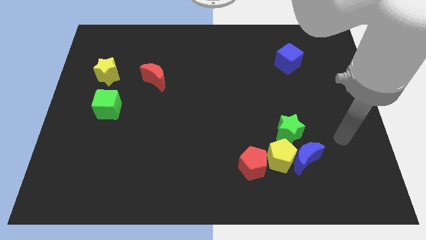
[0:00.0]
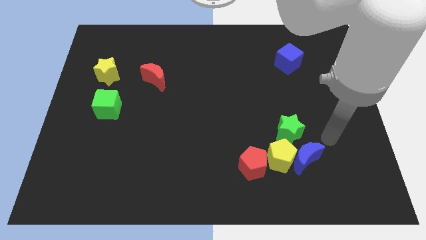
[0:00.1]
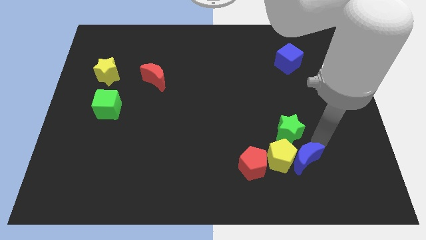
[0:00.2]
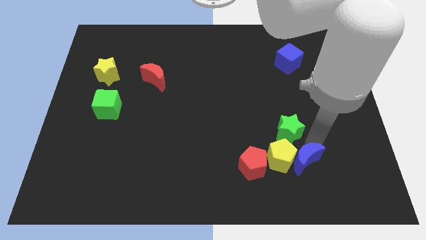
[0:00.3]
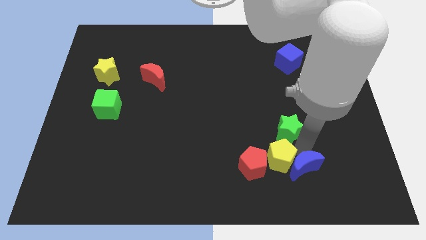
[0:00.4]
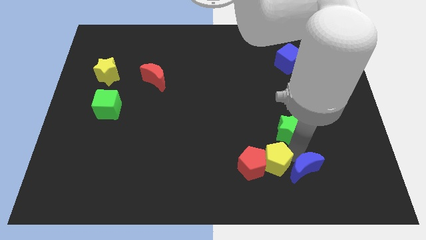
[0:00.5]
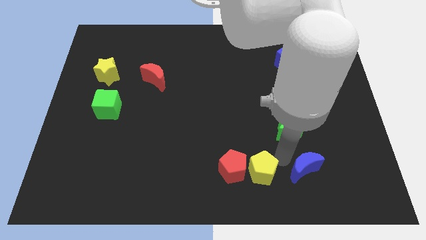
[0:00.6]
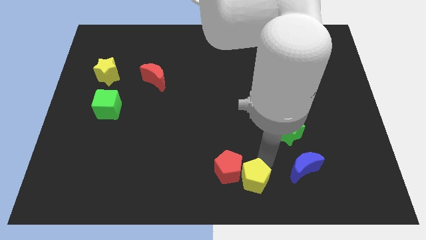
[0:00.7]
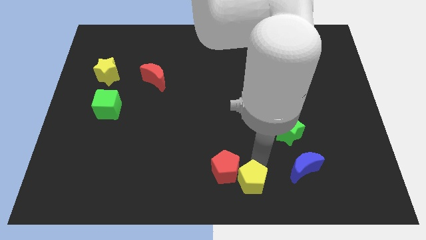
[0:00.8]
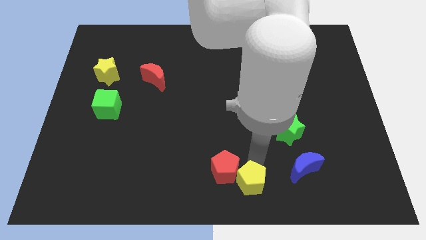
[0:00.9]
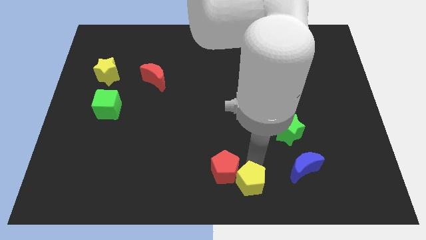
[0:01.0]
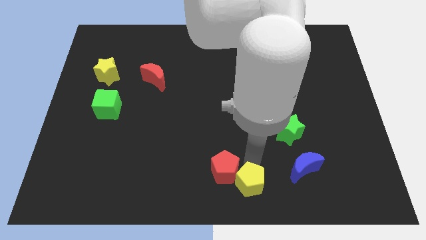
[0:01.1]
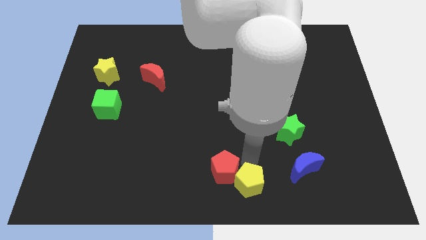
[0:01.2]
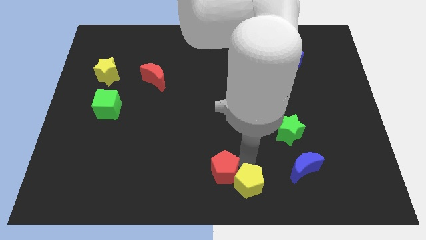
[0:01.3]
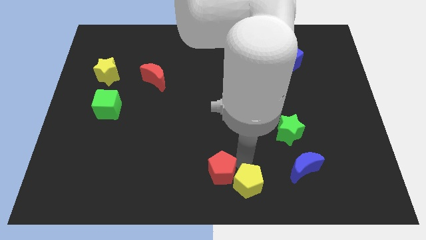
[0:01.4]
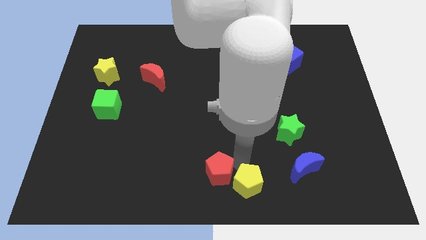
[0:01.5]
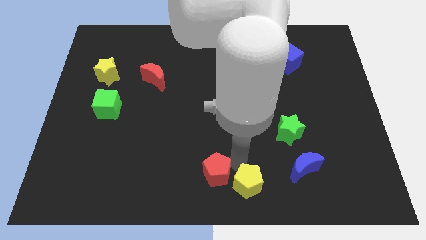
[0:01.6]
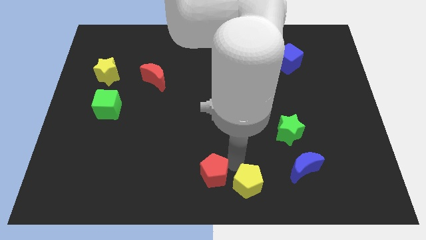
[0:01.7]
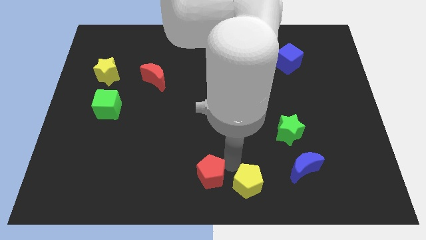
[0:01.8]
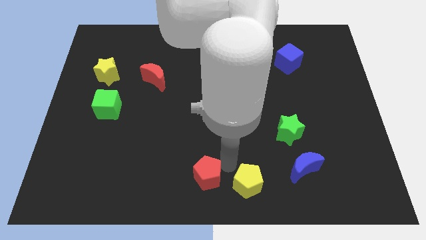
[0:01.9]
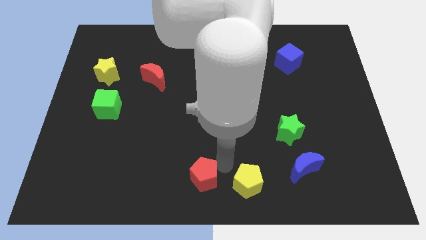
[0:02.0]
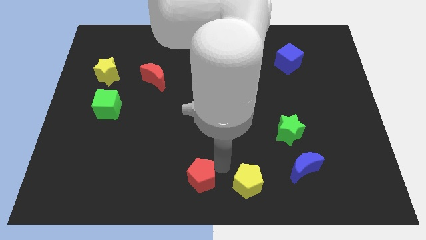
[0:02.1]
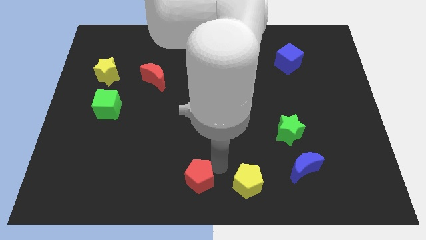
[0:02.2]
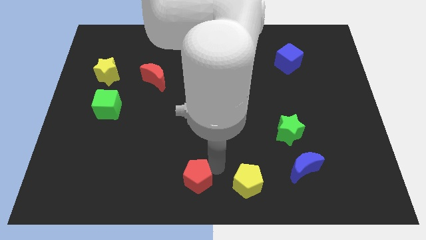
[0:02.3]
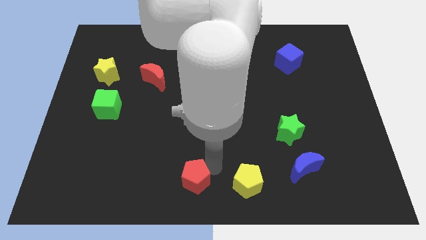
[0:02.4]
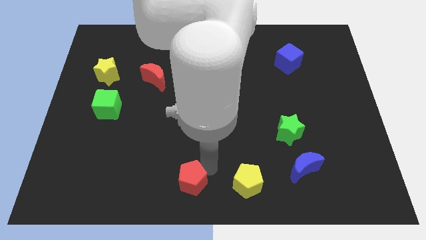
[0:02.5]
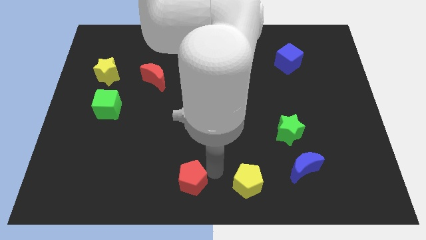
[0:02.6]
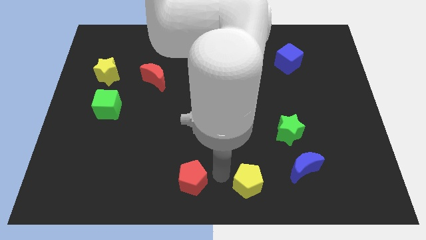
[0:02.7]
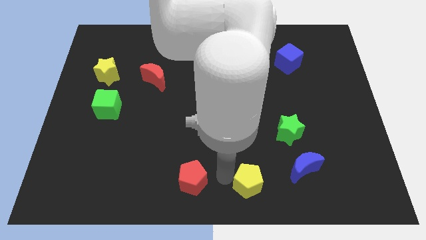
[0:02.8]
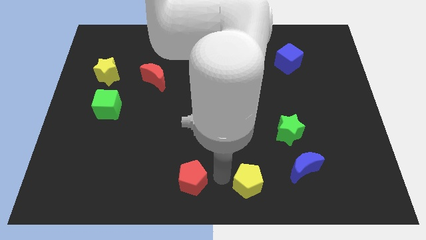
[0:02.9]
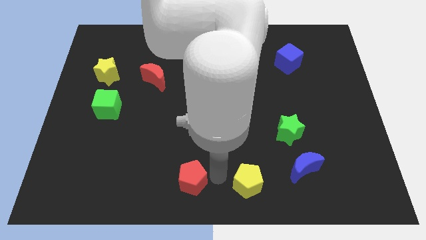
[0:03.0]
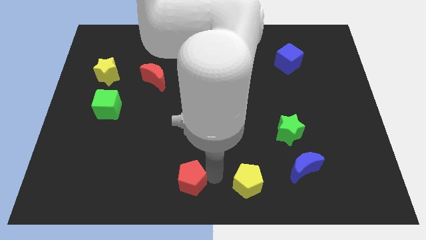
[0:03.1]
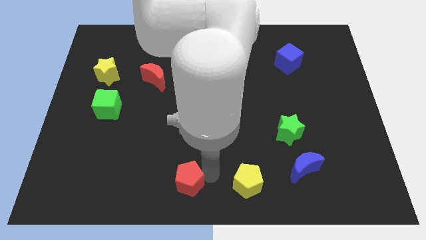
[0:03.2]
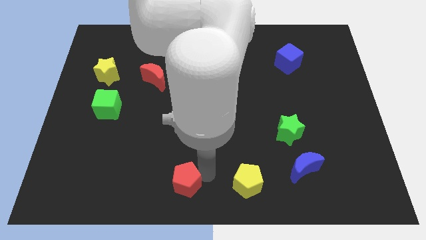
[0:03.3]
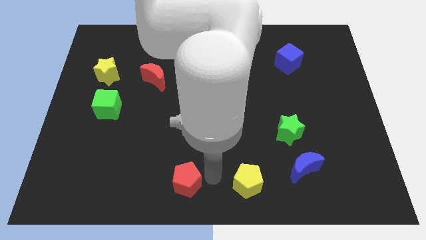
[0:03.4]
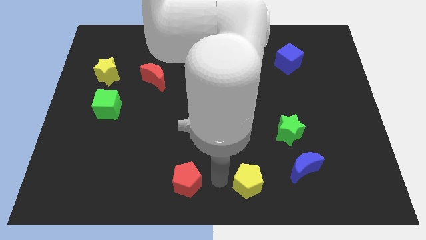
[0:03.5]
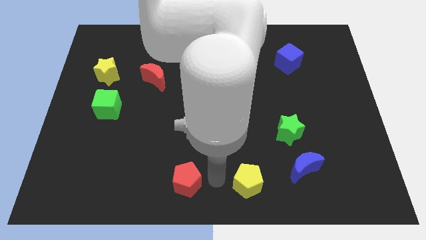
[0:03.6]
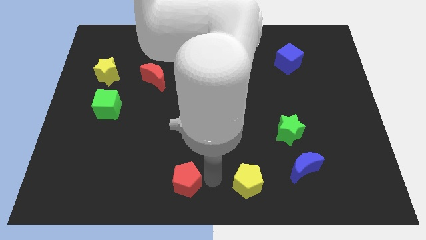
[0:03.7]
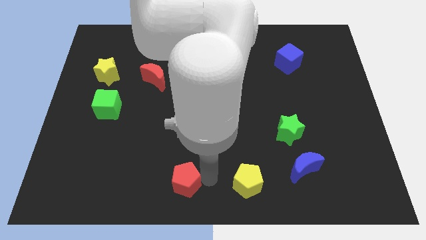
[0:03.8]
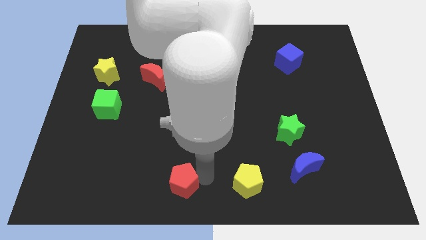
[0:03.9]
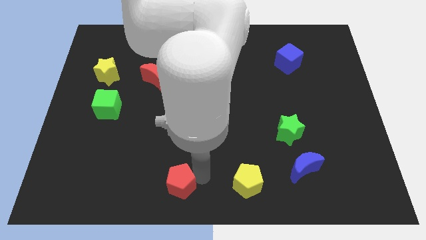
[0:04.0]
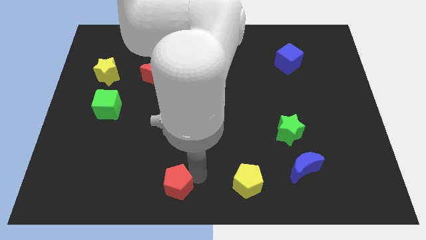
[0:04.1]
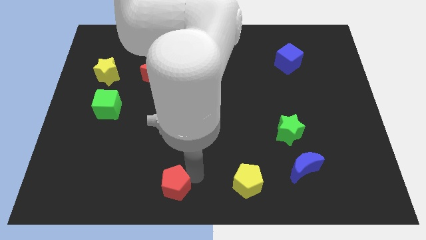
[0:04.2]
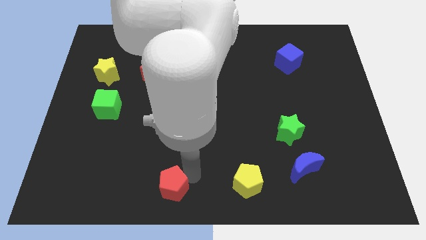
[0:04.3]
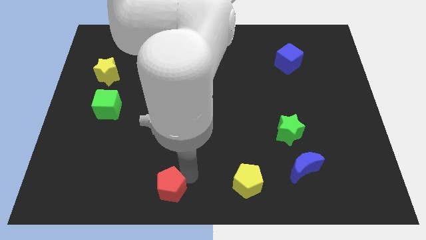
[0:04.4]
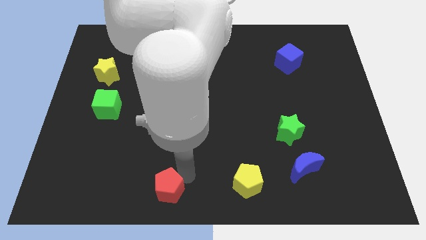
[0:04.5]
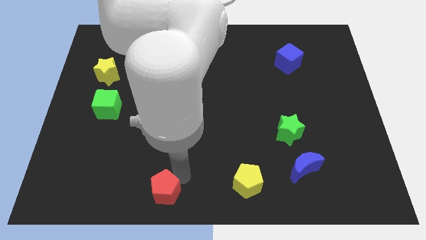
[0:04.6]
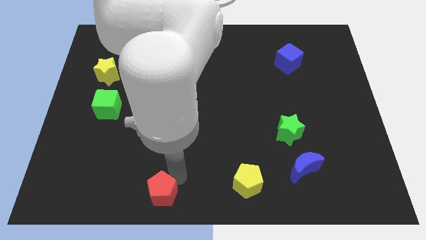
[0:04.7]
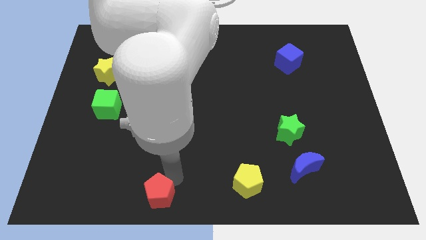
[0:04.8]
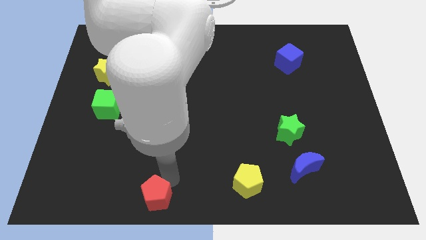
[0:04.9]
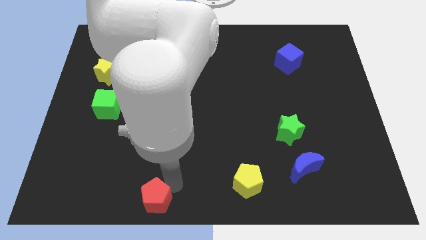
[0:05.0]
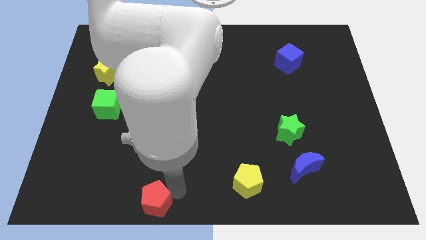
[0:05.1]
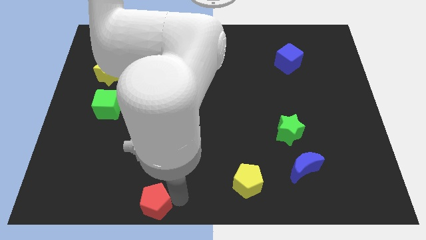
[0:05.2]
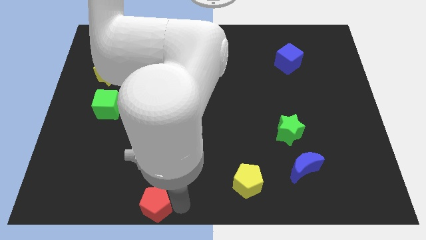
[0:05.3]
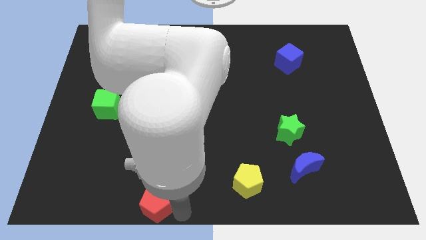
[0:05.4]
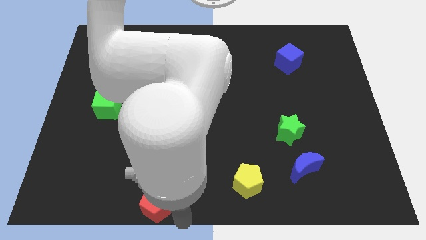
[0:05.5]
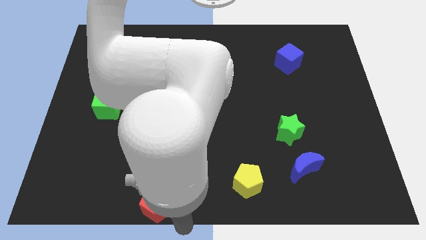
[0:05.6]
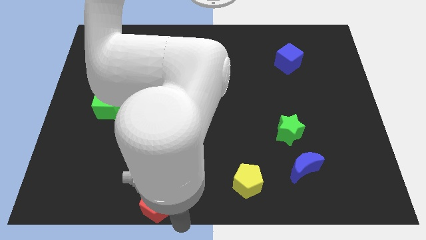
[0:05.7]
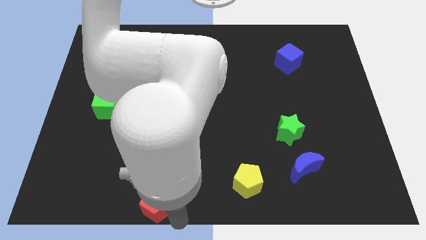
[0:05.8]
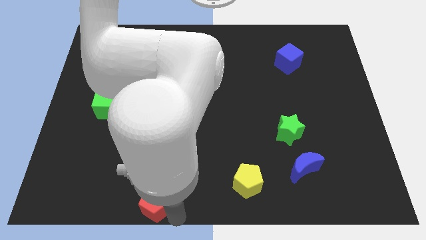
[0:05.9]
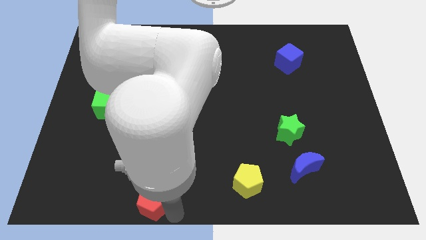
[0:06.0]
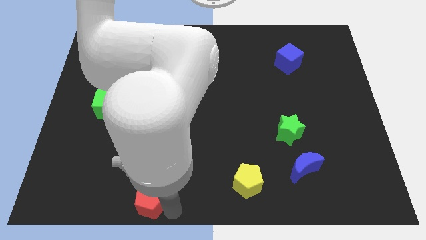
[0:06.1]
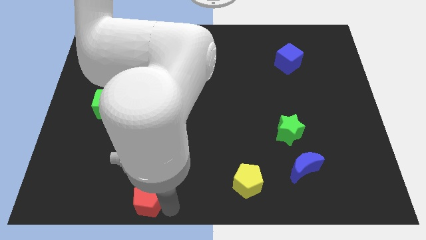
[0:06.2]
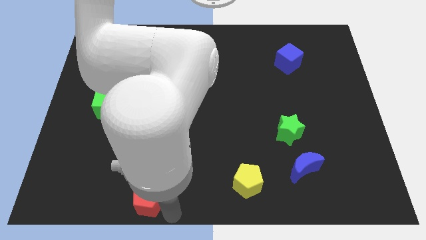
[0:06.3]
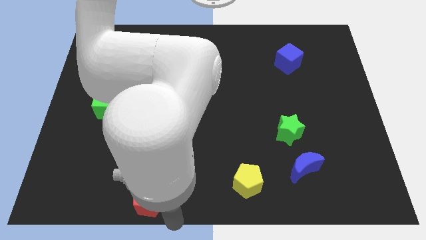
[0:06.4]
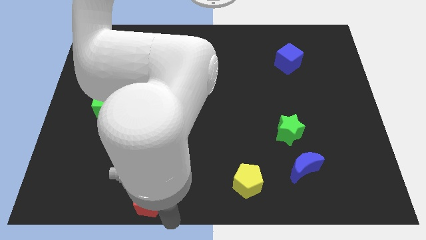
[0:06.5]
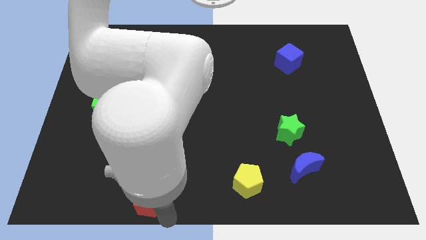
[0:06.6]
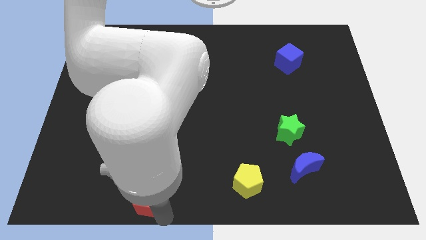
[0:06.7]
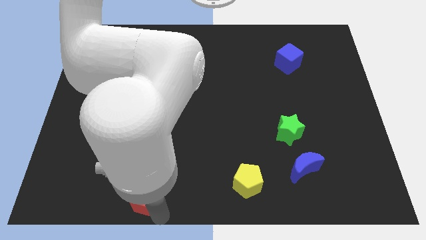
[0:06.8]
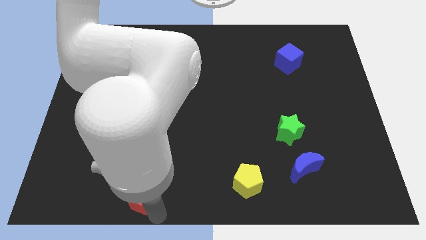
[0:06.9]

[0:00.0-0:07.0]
push the red pentagon to the left

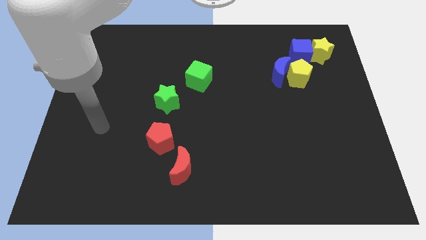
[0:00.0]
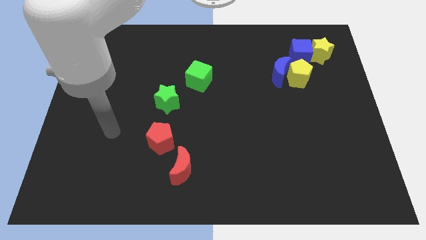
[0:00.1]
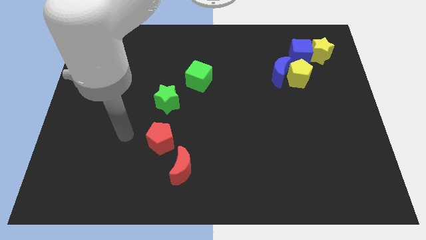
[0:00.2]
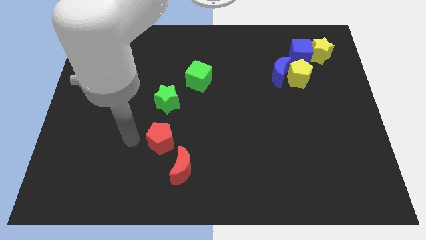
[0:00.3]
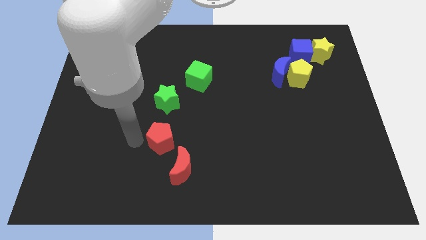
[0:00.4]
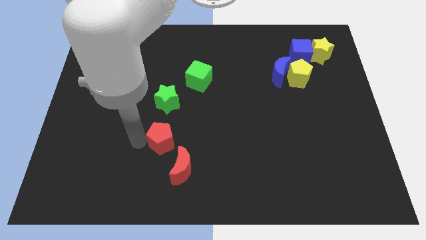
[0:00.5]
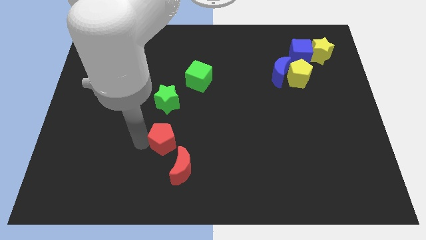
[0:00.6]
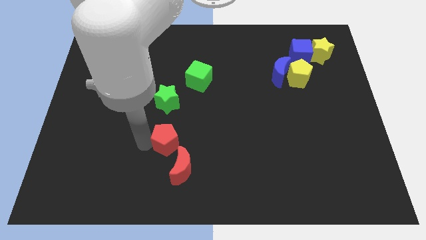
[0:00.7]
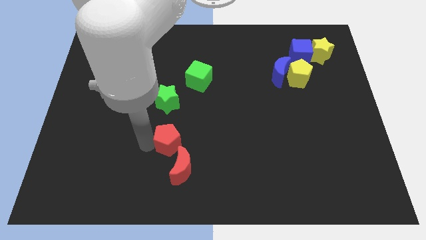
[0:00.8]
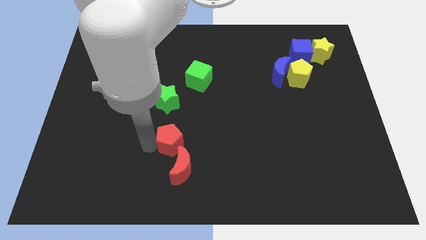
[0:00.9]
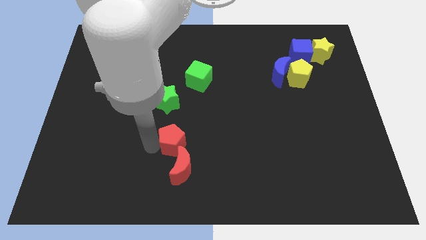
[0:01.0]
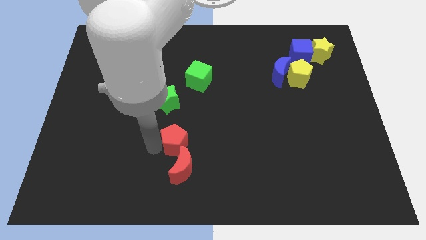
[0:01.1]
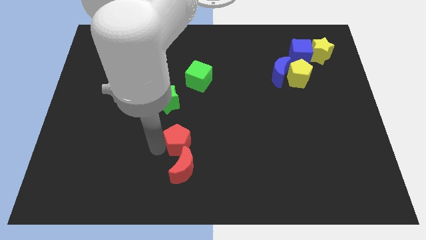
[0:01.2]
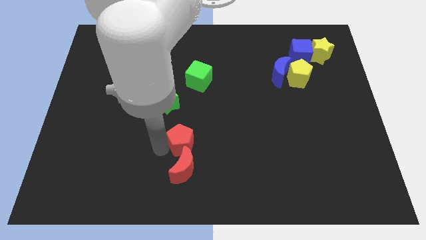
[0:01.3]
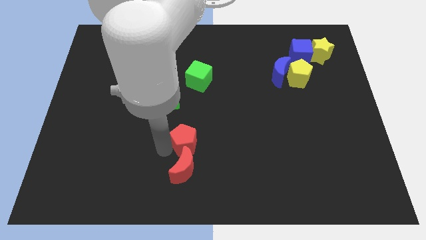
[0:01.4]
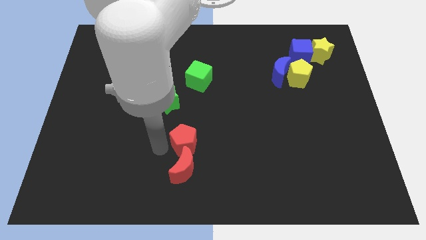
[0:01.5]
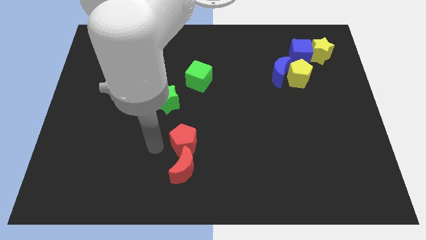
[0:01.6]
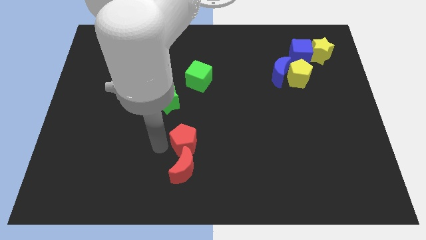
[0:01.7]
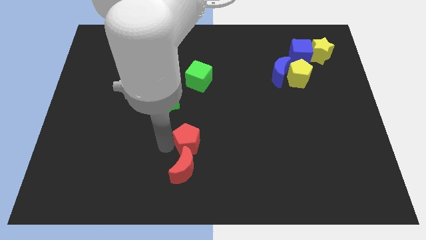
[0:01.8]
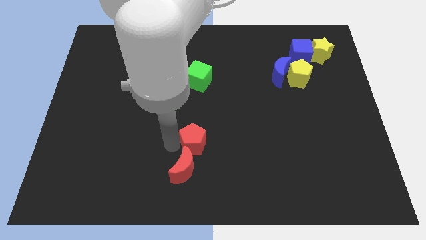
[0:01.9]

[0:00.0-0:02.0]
push the red pentagon right somewhat
